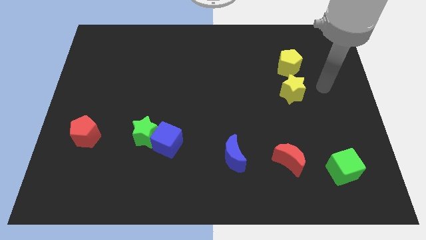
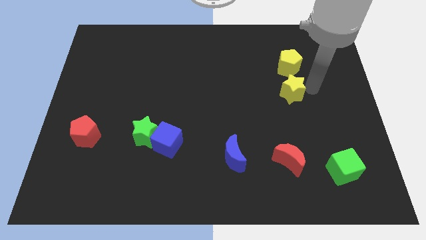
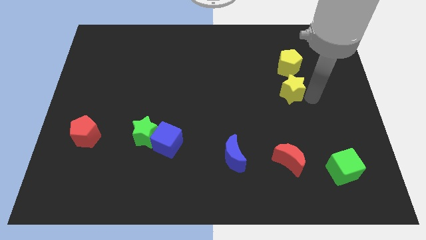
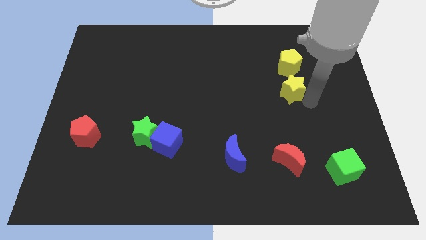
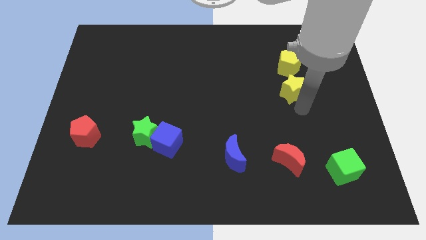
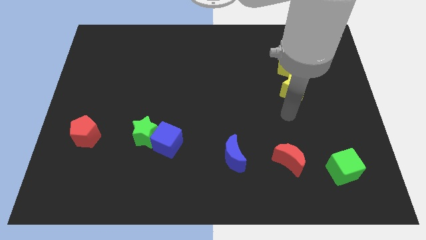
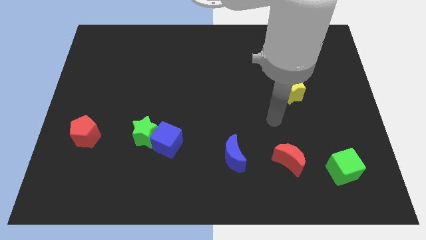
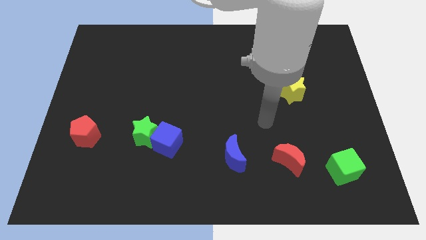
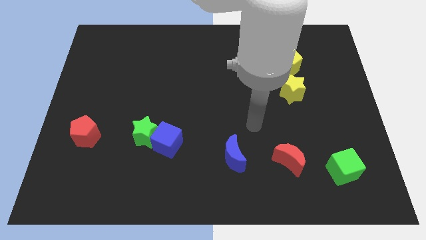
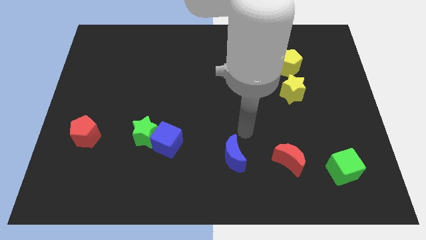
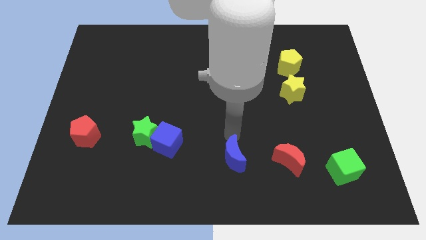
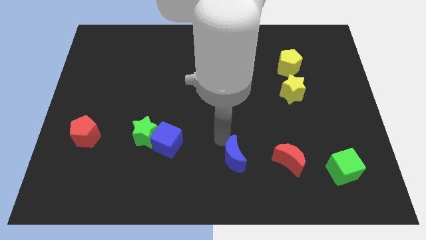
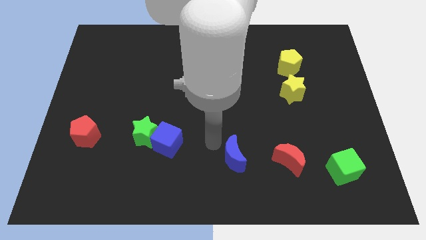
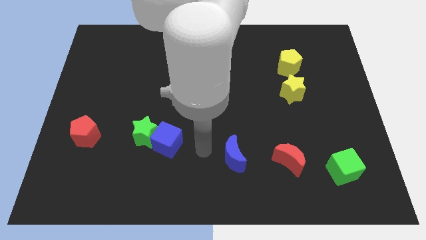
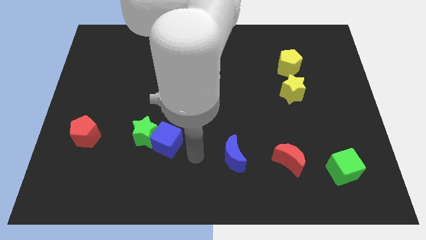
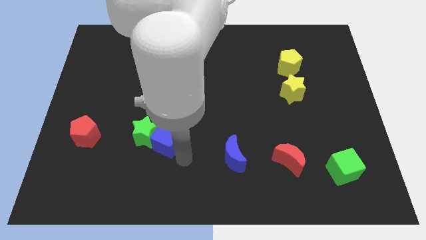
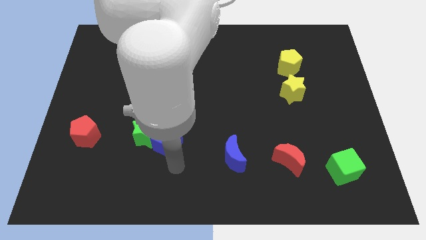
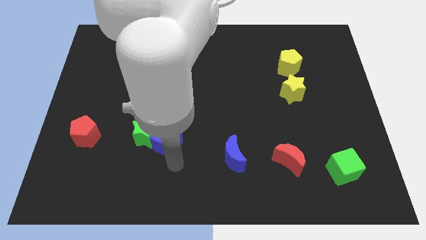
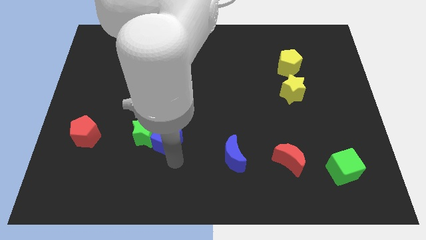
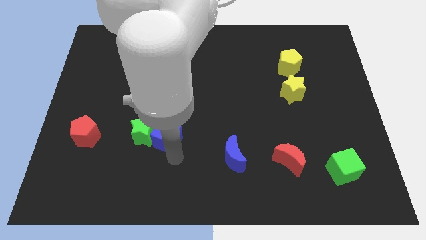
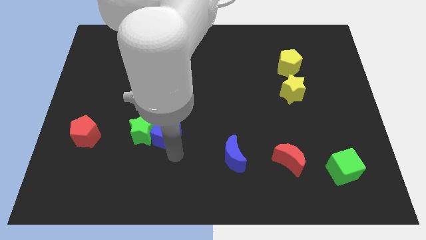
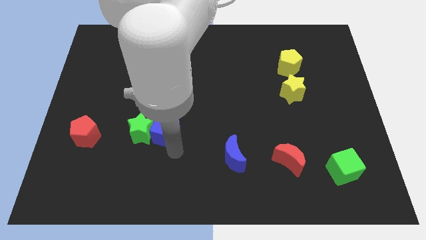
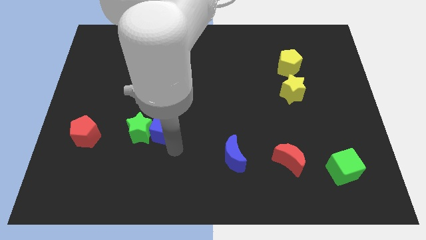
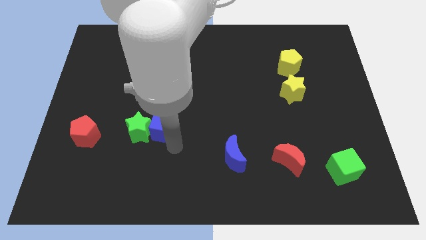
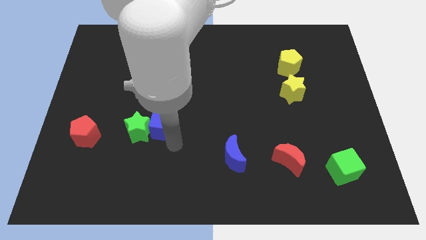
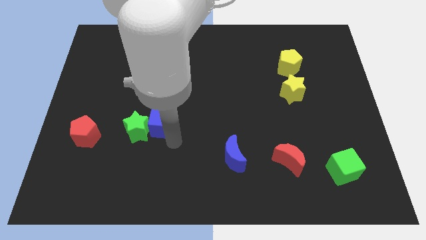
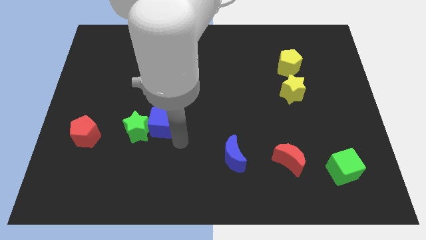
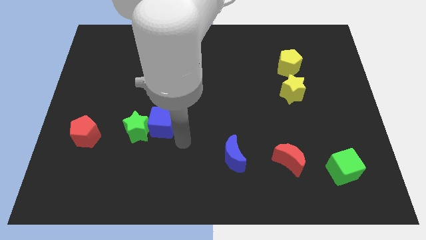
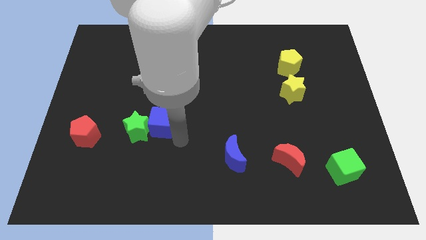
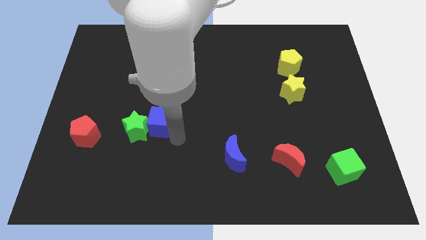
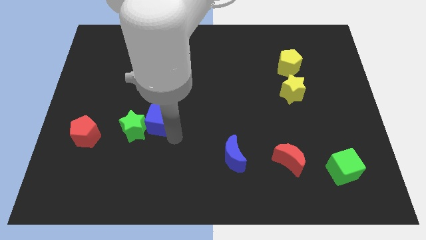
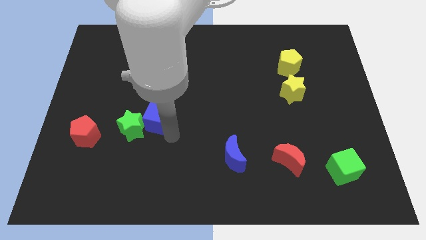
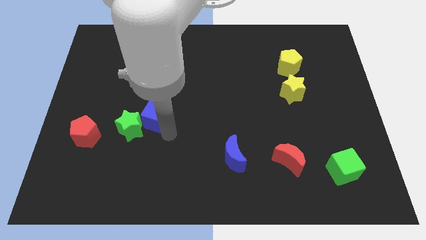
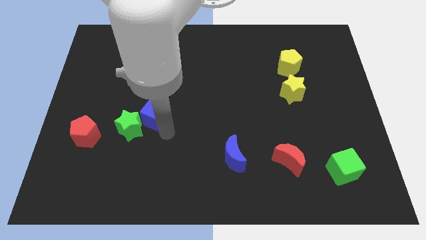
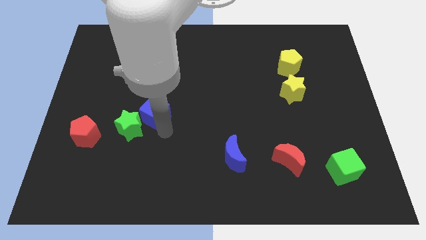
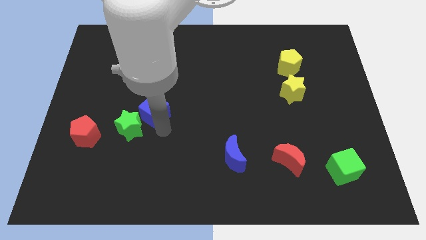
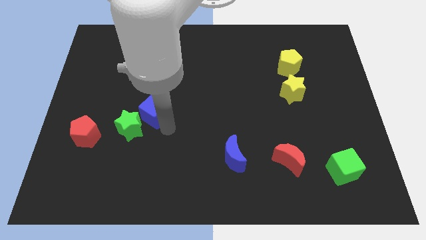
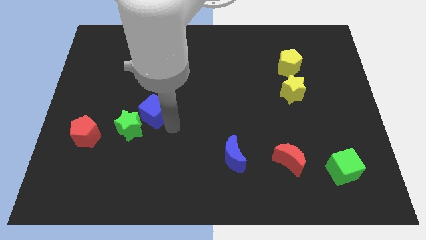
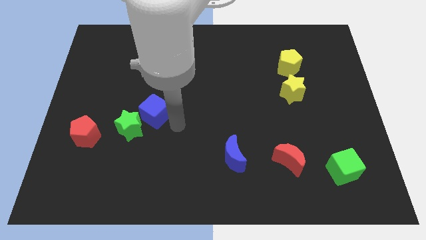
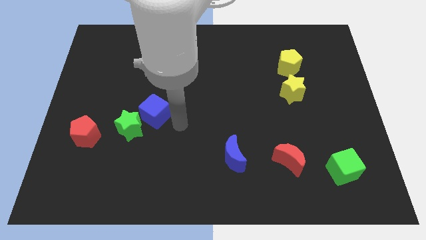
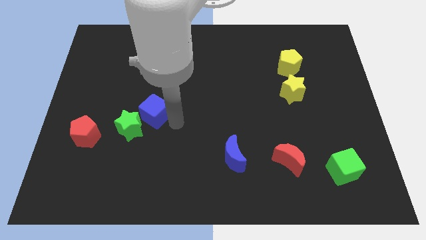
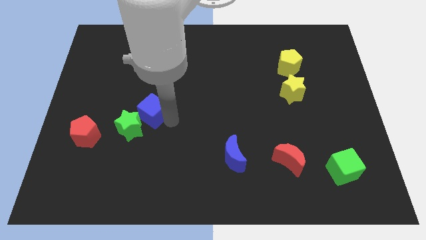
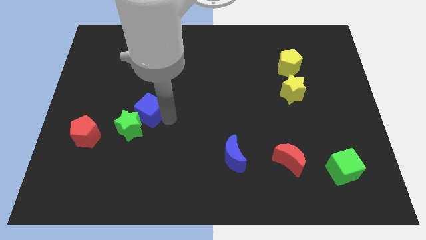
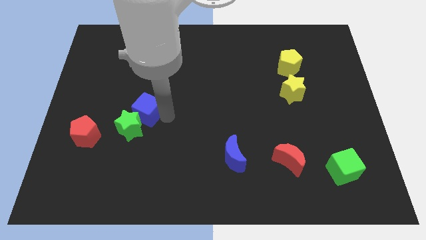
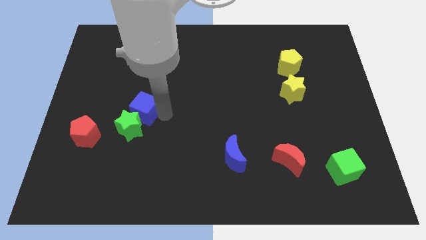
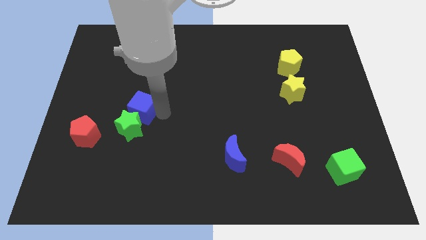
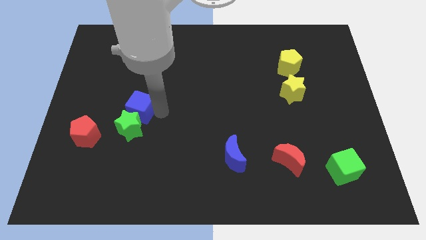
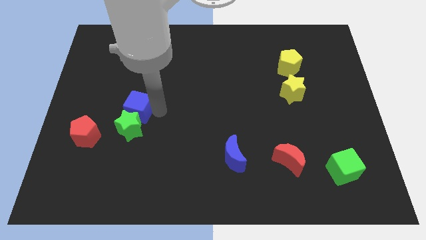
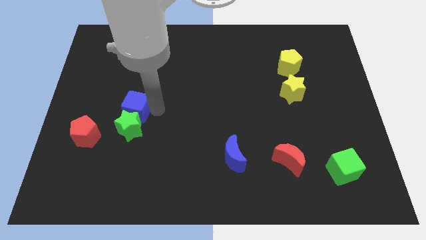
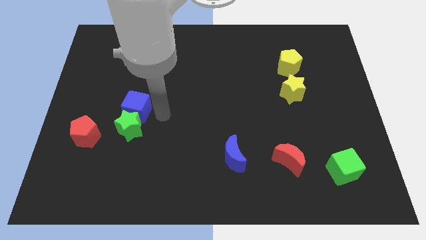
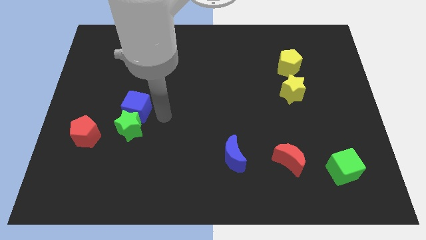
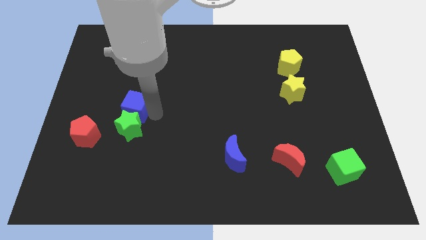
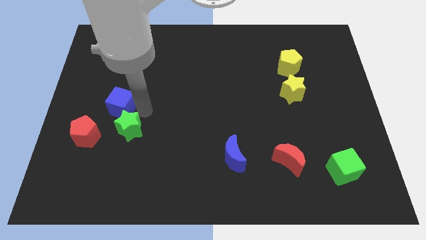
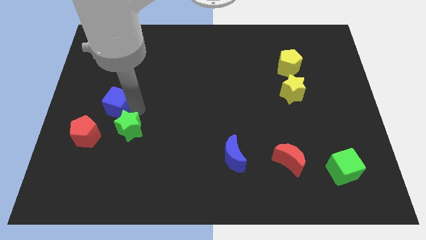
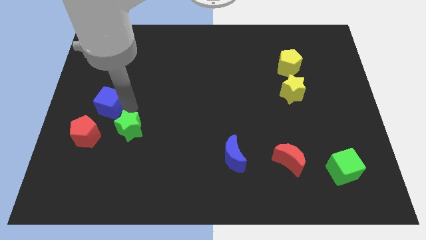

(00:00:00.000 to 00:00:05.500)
put the blue cube above the red pentagon

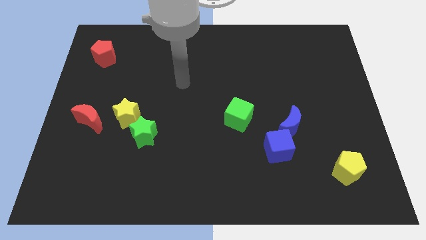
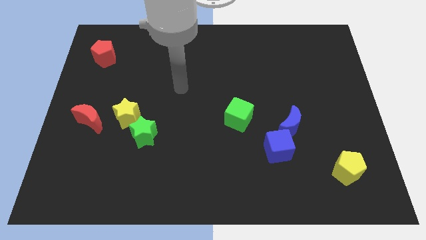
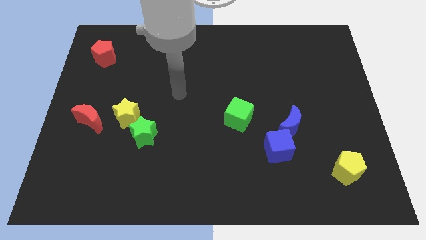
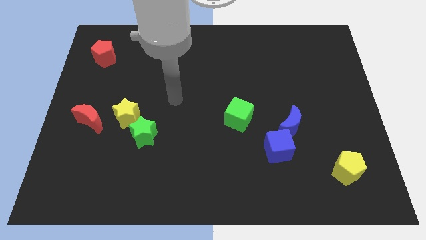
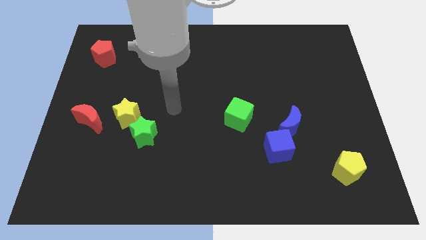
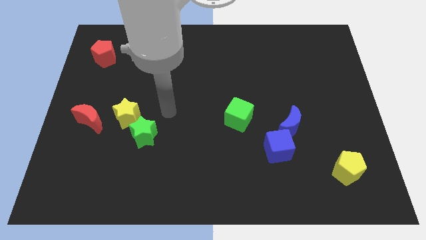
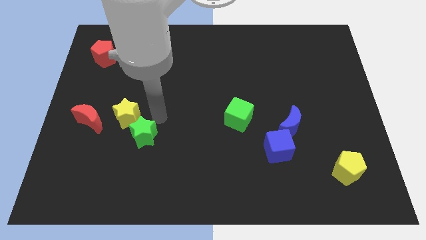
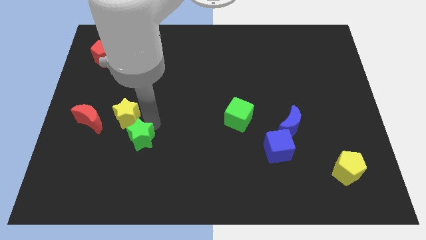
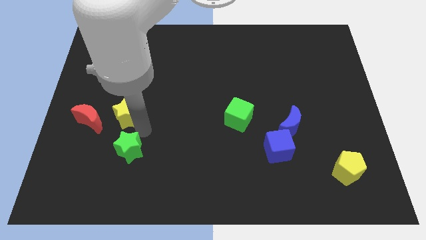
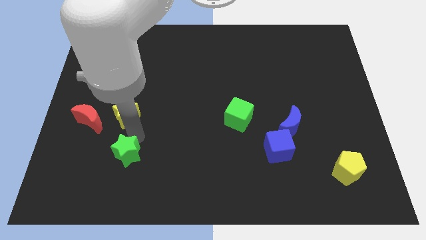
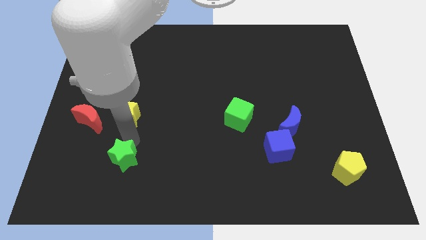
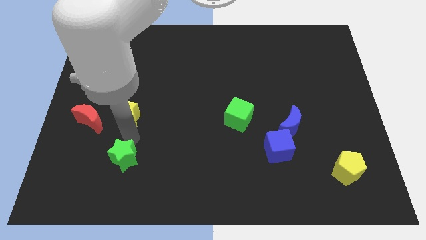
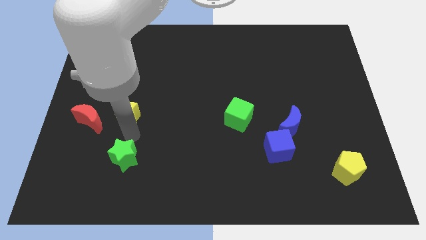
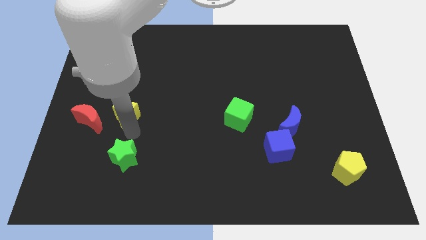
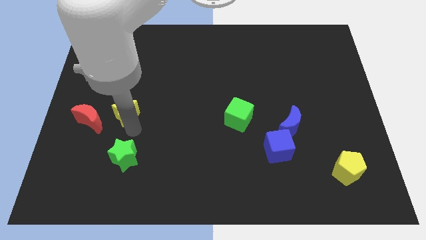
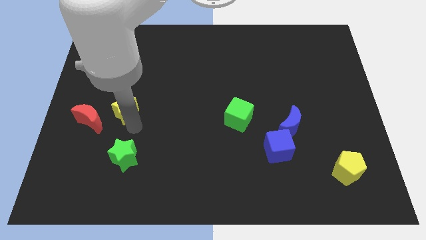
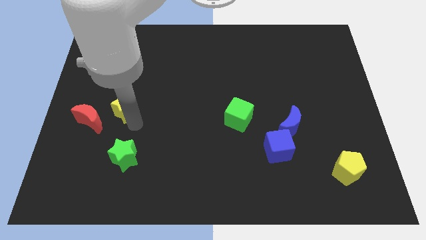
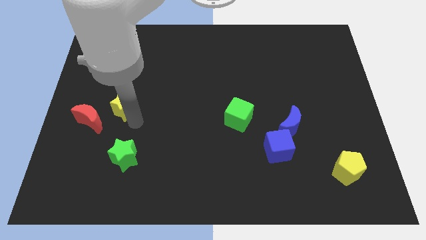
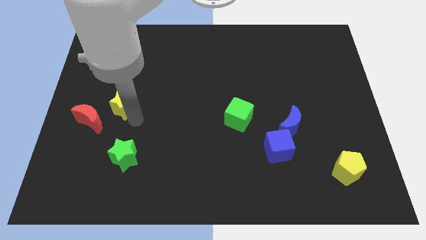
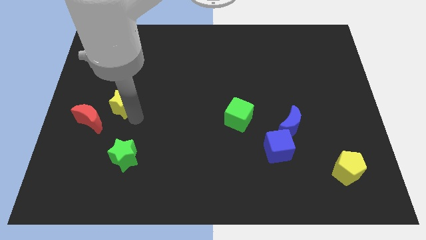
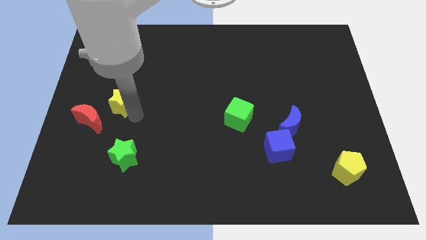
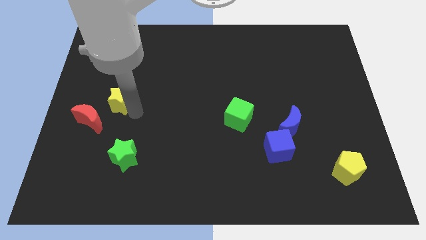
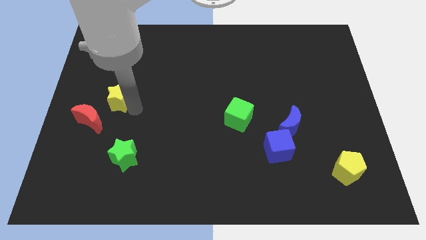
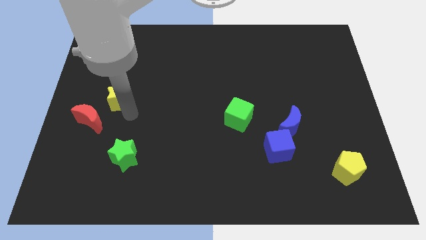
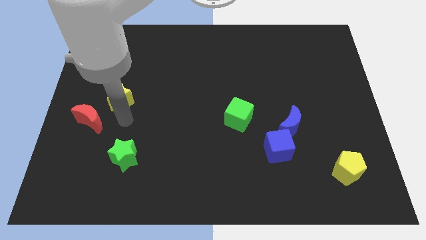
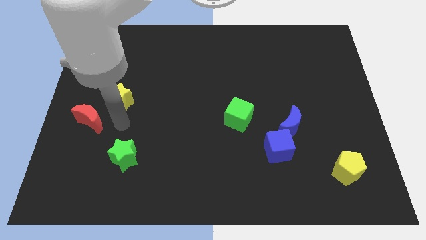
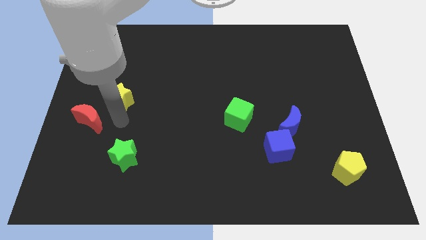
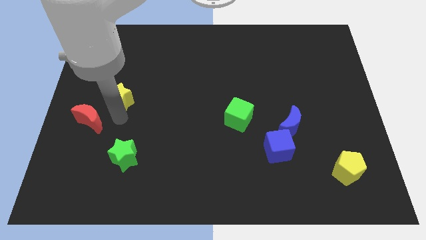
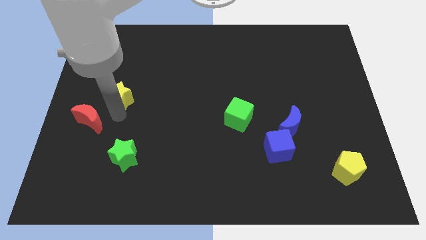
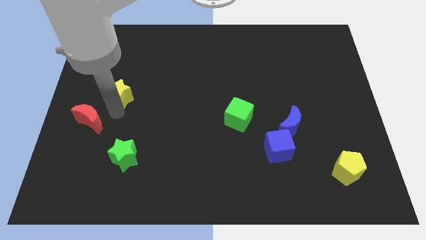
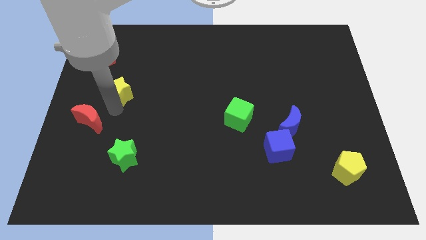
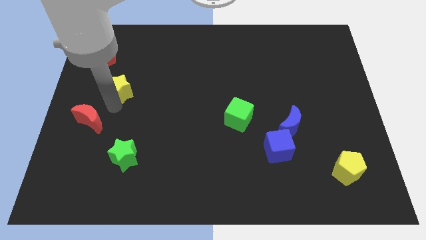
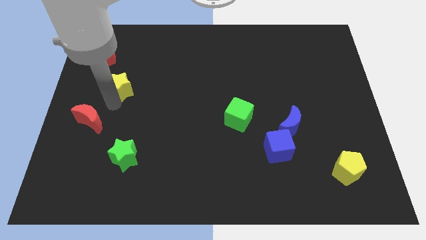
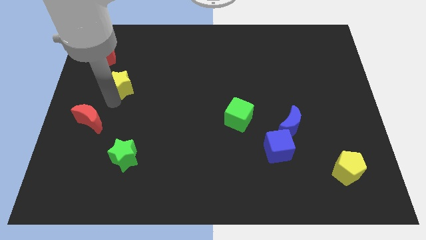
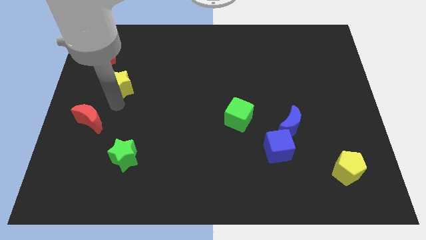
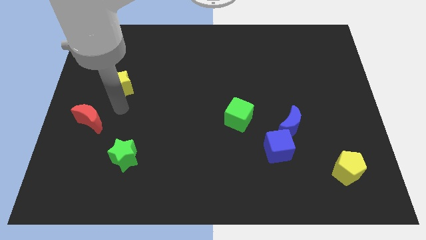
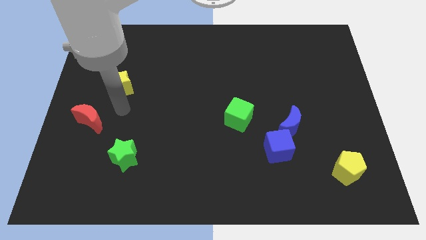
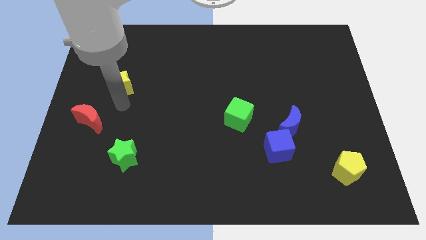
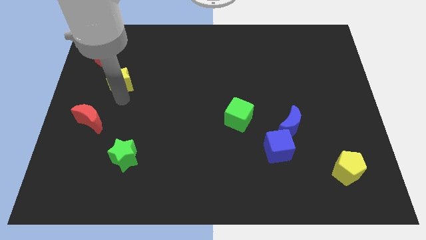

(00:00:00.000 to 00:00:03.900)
put the yellow star to the bottom right of the red pentagon
